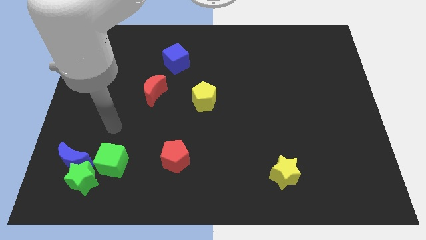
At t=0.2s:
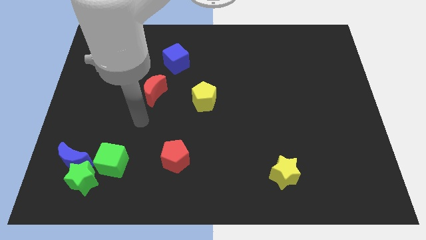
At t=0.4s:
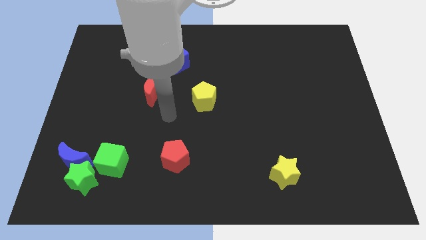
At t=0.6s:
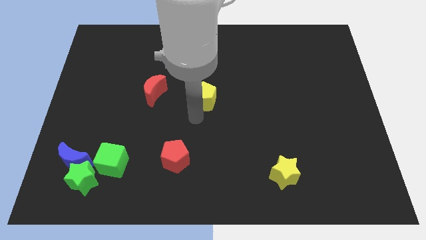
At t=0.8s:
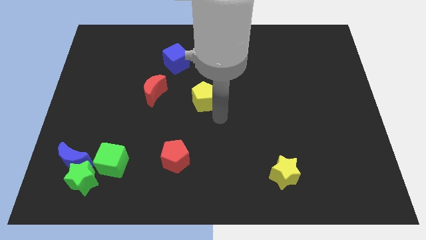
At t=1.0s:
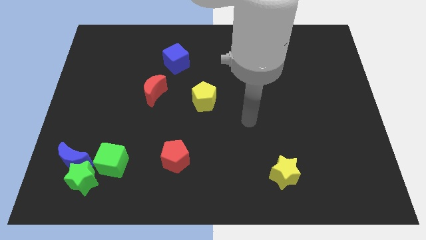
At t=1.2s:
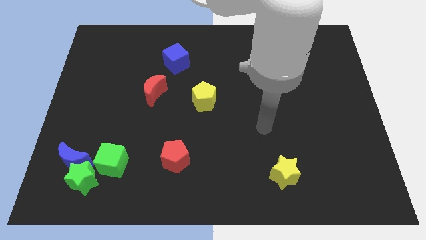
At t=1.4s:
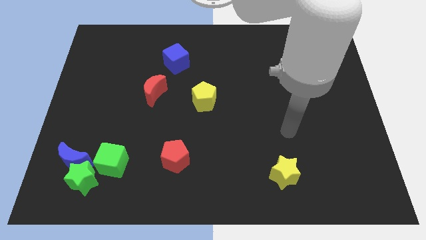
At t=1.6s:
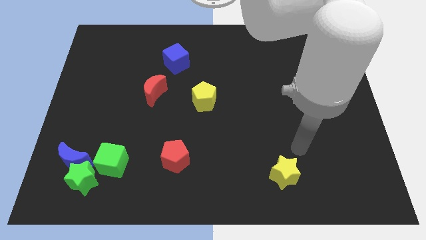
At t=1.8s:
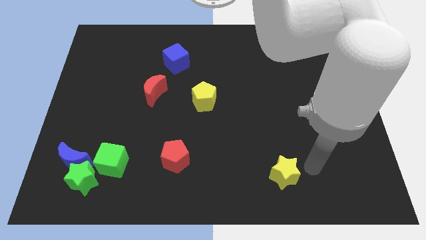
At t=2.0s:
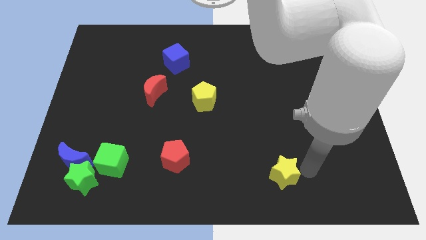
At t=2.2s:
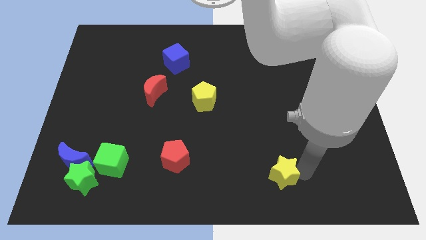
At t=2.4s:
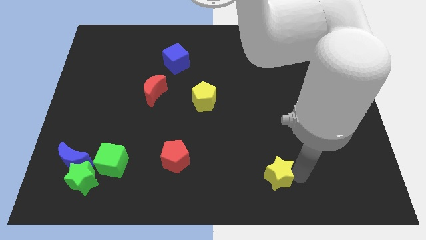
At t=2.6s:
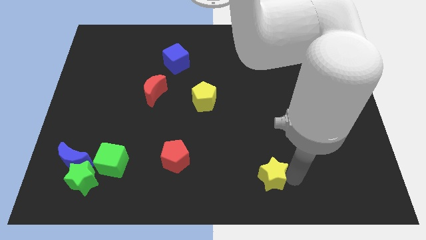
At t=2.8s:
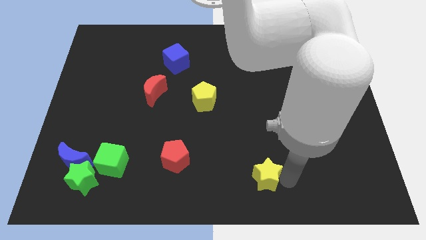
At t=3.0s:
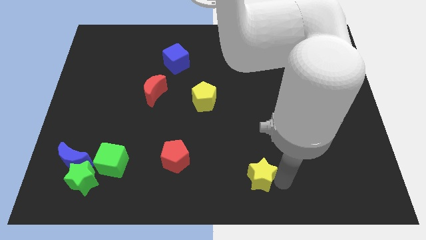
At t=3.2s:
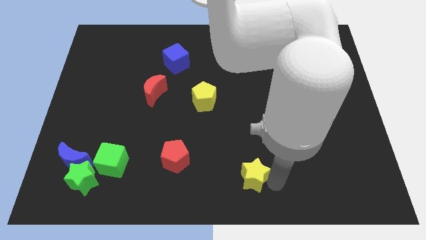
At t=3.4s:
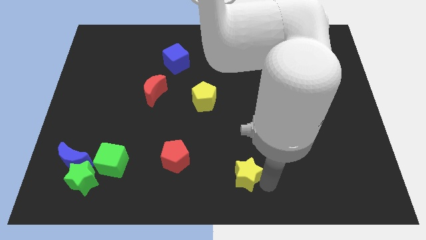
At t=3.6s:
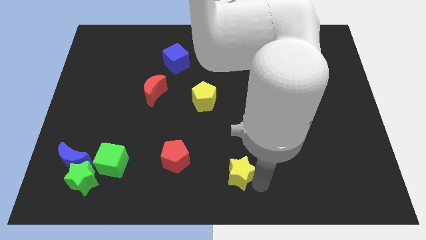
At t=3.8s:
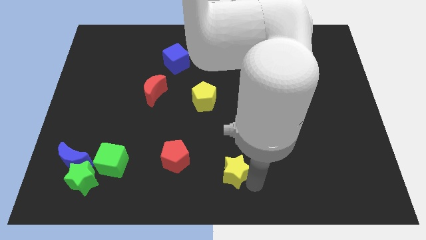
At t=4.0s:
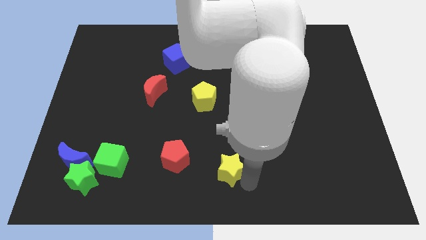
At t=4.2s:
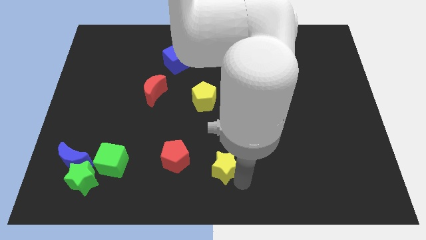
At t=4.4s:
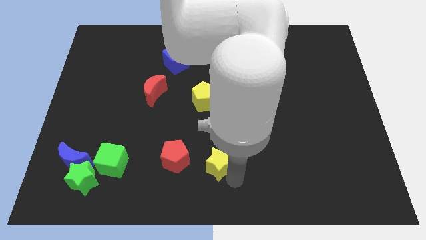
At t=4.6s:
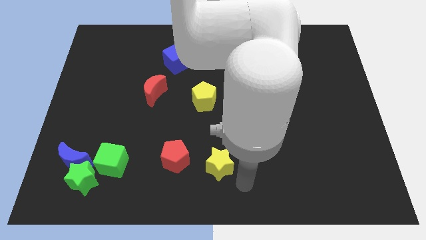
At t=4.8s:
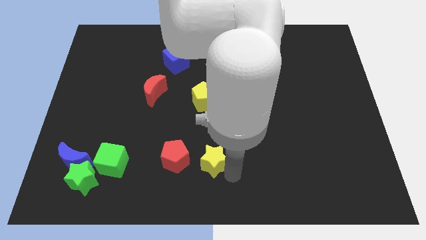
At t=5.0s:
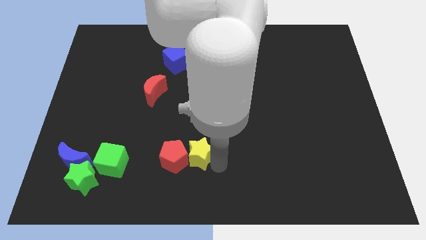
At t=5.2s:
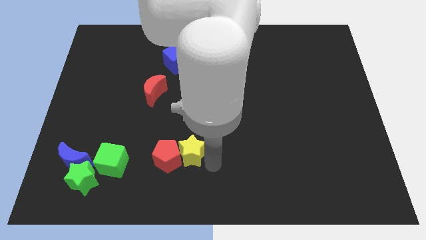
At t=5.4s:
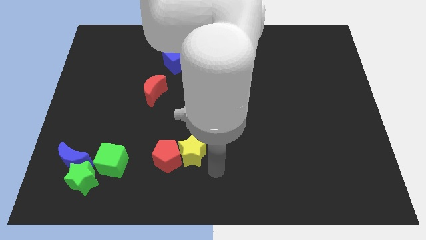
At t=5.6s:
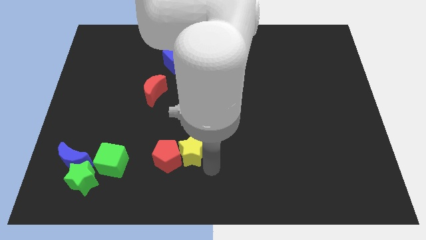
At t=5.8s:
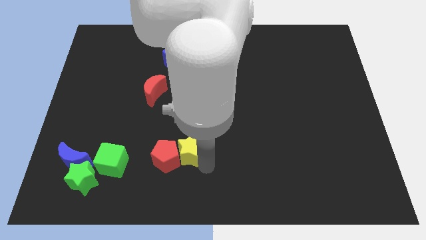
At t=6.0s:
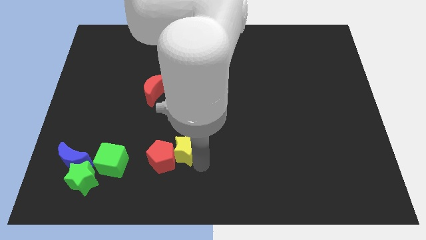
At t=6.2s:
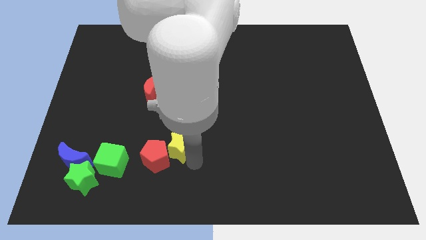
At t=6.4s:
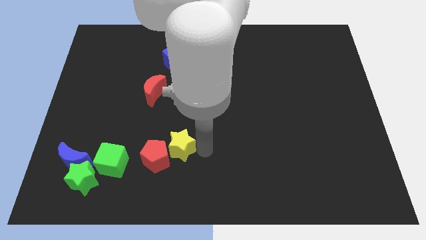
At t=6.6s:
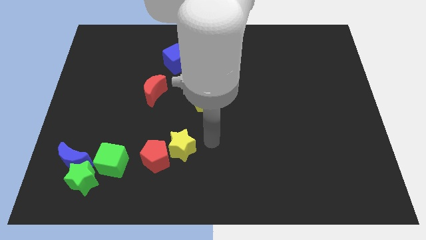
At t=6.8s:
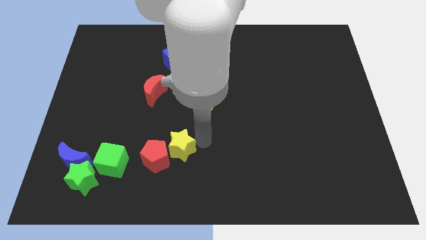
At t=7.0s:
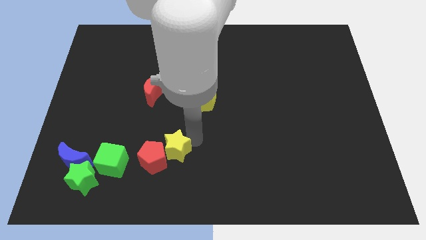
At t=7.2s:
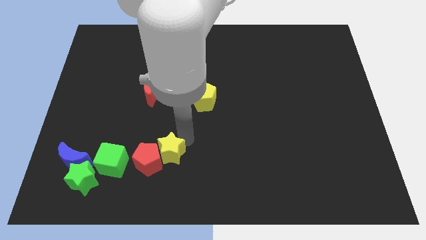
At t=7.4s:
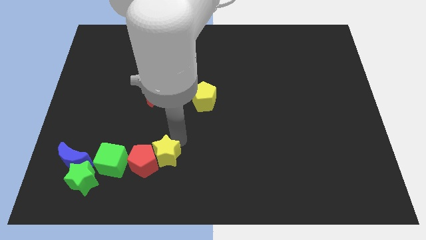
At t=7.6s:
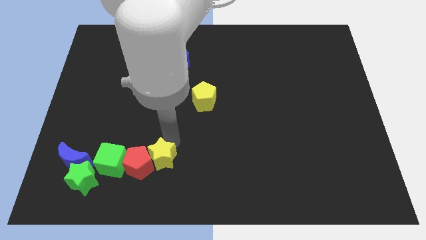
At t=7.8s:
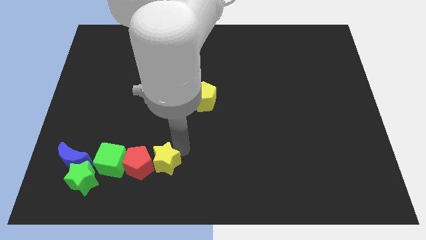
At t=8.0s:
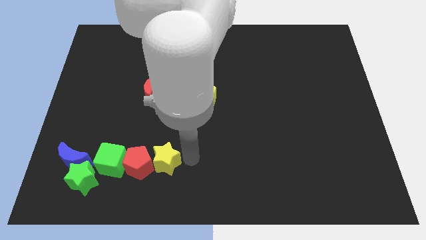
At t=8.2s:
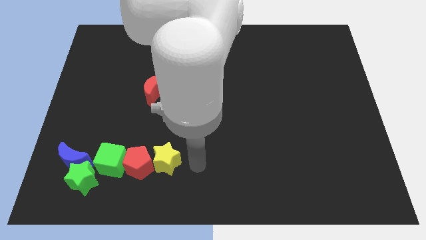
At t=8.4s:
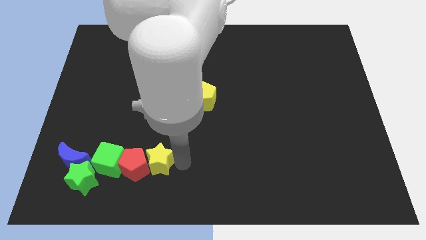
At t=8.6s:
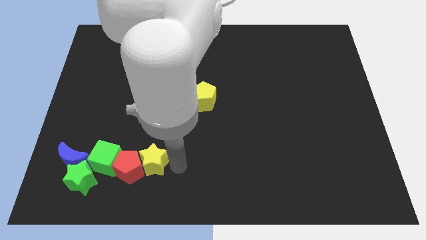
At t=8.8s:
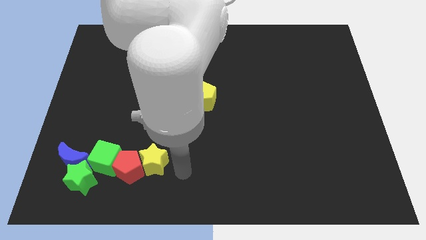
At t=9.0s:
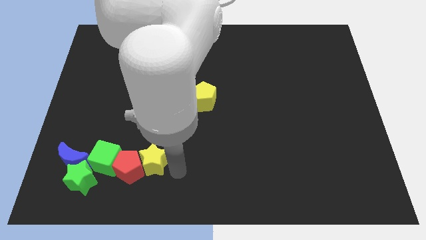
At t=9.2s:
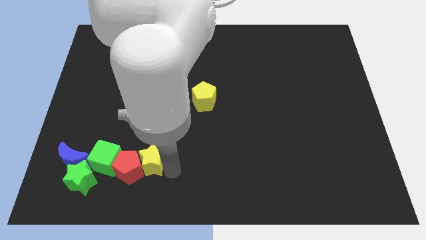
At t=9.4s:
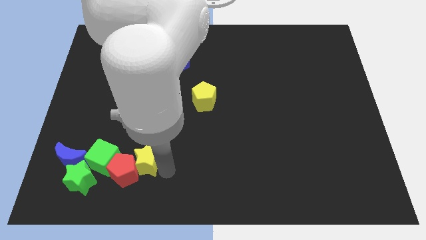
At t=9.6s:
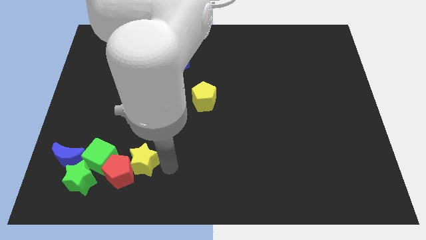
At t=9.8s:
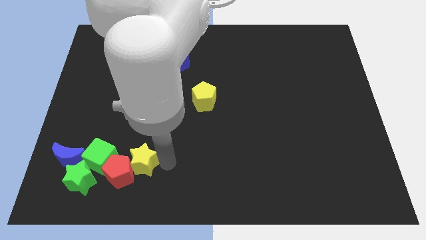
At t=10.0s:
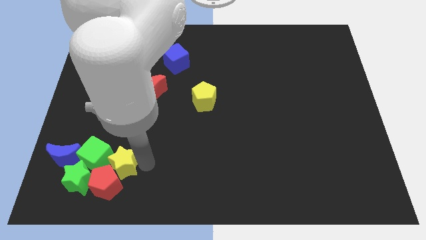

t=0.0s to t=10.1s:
slide the yellow star towards the green cube

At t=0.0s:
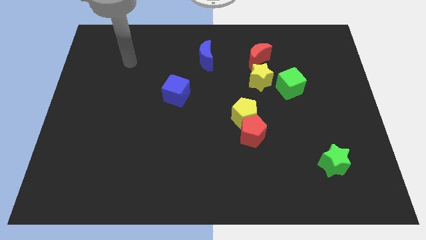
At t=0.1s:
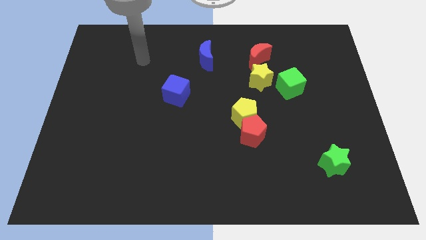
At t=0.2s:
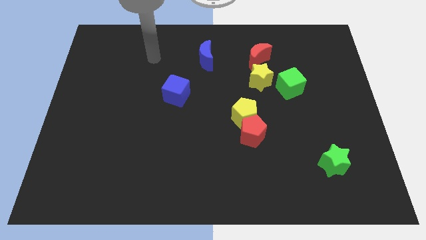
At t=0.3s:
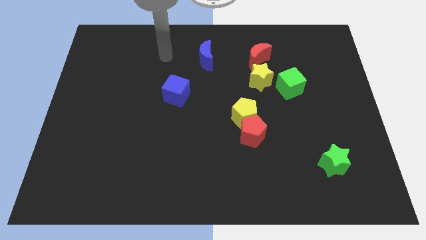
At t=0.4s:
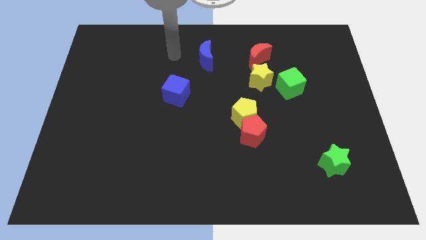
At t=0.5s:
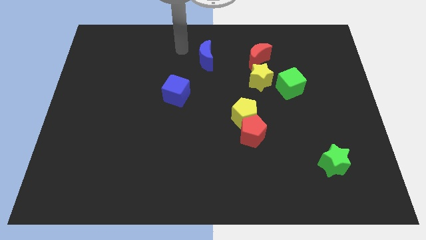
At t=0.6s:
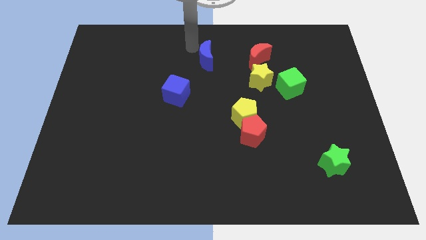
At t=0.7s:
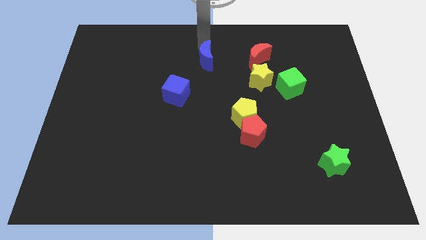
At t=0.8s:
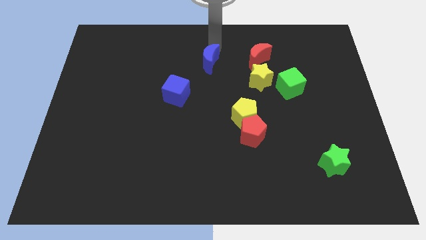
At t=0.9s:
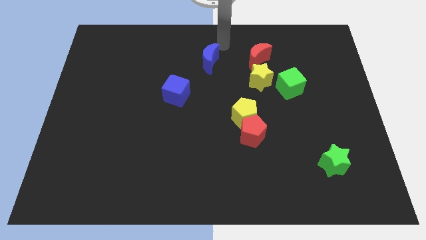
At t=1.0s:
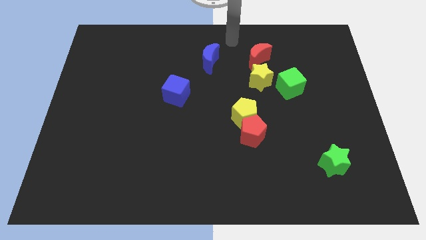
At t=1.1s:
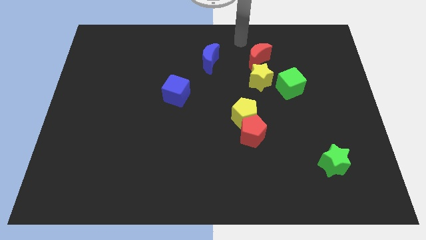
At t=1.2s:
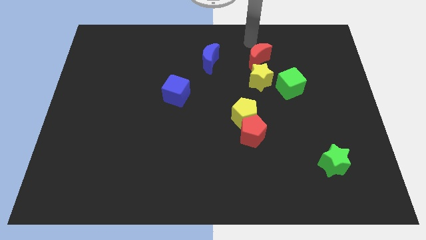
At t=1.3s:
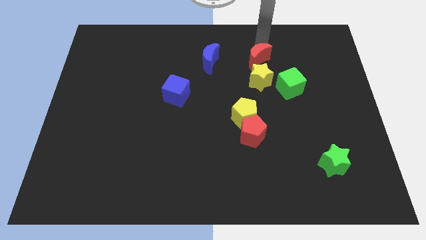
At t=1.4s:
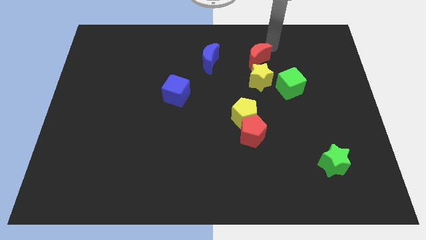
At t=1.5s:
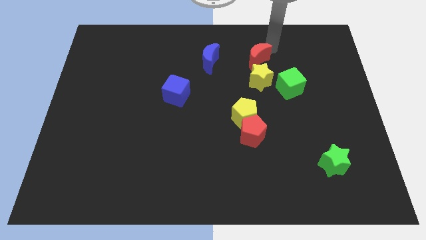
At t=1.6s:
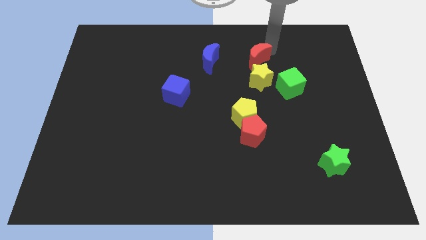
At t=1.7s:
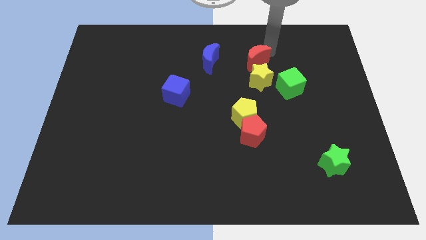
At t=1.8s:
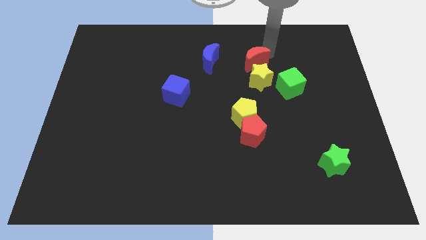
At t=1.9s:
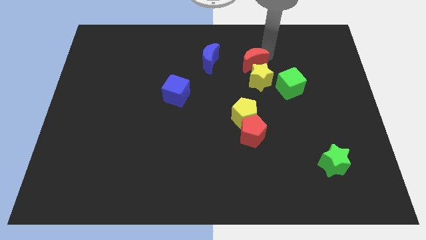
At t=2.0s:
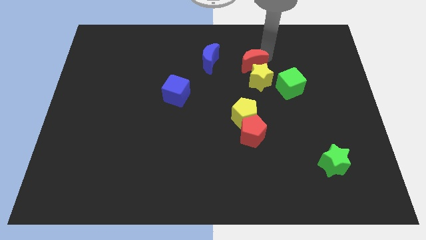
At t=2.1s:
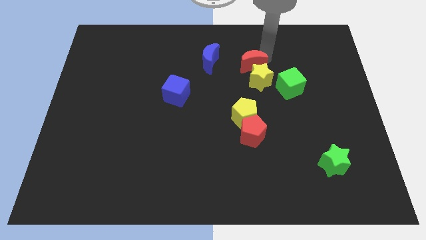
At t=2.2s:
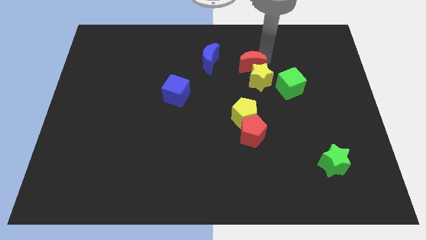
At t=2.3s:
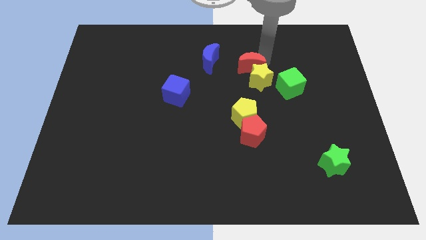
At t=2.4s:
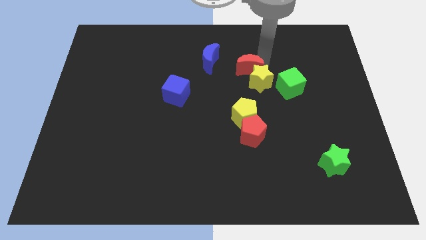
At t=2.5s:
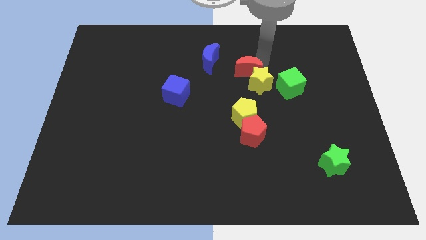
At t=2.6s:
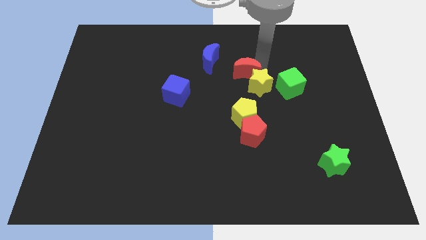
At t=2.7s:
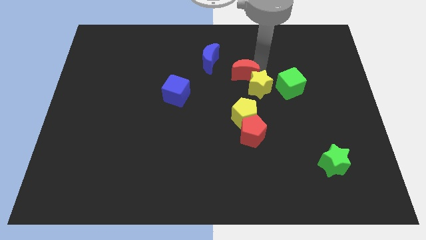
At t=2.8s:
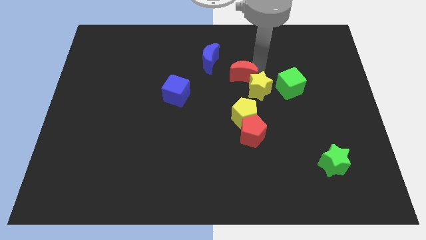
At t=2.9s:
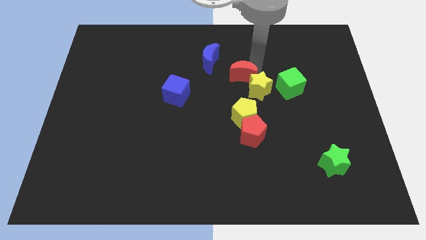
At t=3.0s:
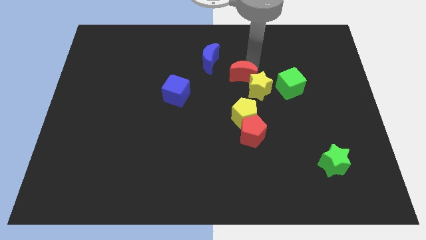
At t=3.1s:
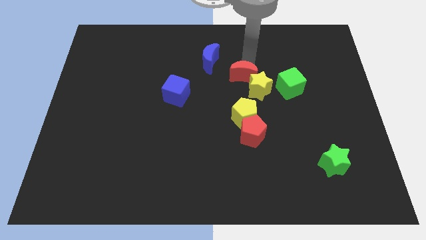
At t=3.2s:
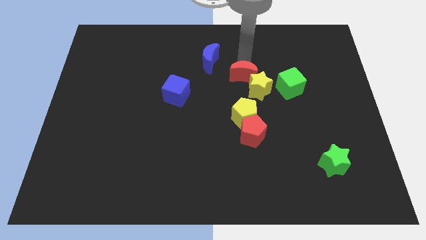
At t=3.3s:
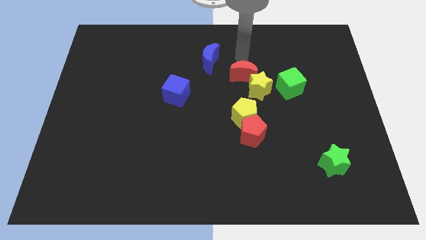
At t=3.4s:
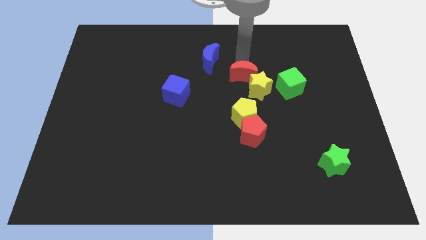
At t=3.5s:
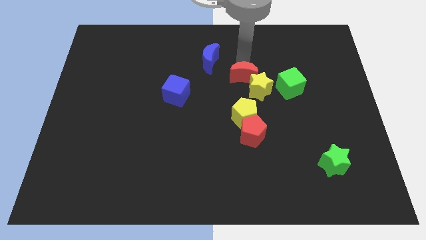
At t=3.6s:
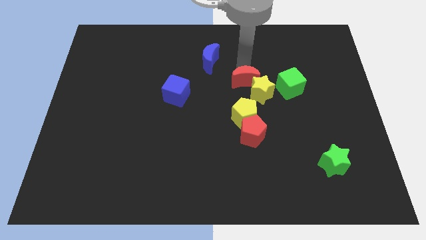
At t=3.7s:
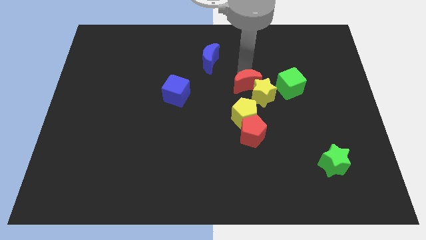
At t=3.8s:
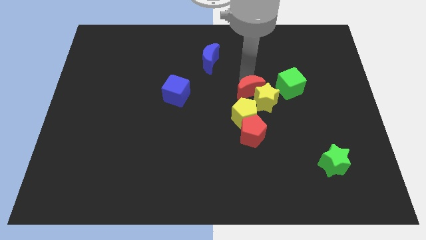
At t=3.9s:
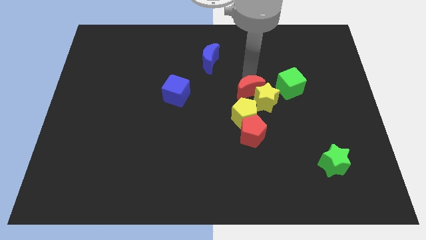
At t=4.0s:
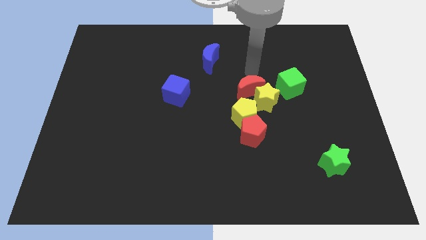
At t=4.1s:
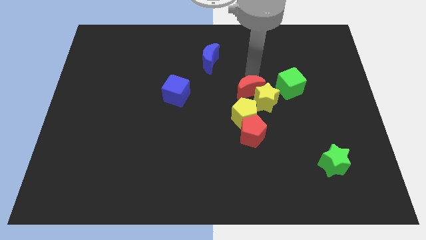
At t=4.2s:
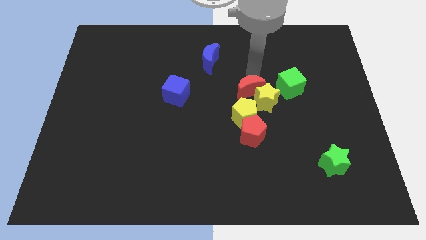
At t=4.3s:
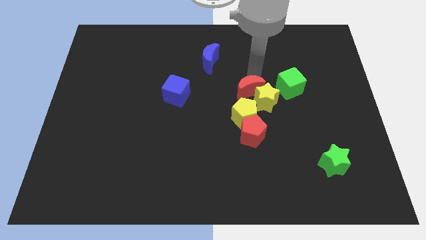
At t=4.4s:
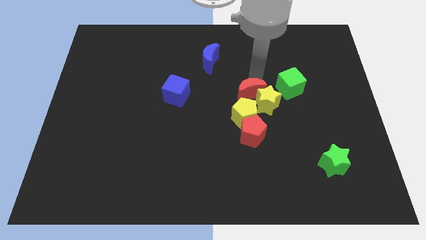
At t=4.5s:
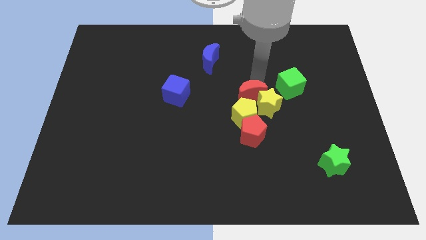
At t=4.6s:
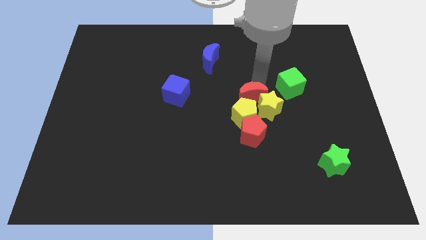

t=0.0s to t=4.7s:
put the red moon to the yellow pentagon
